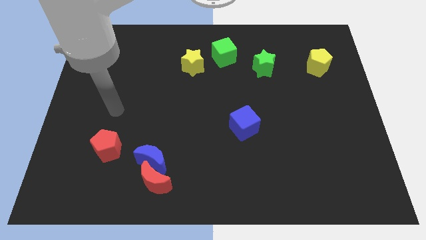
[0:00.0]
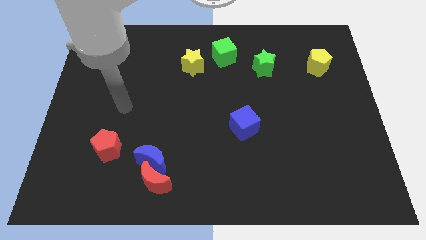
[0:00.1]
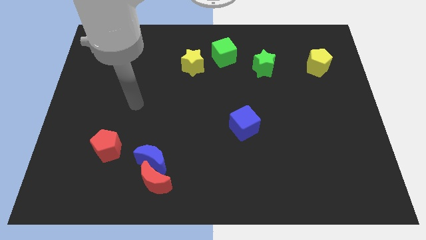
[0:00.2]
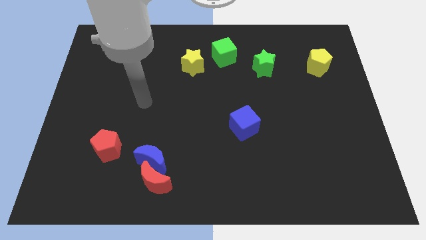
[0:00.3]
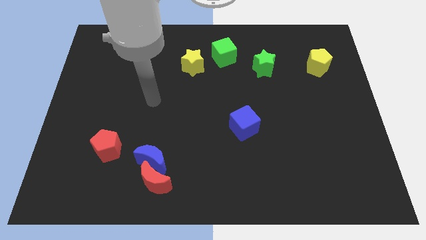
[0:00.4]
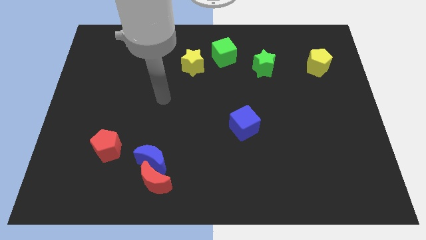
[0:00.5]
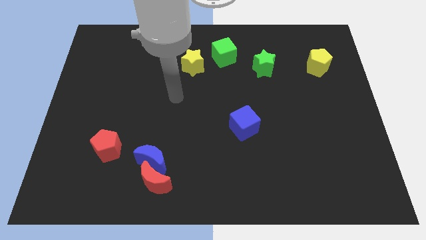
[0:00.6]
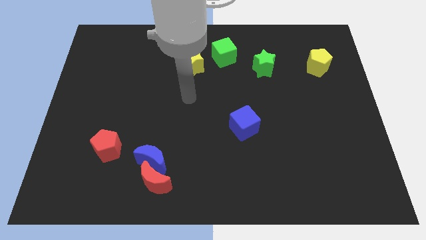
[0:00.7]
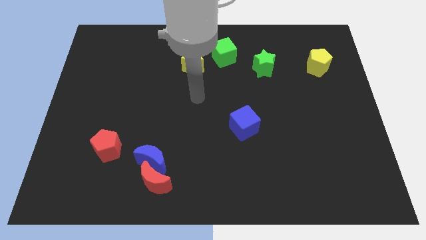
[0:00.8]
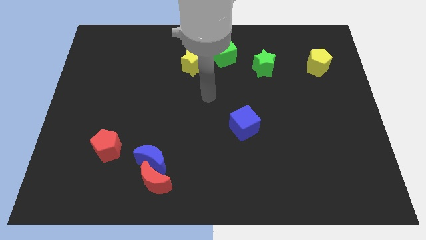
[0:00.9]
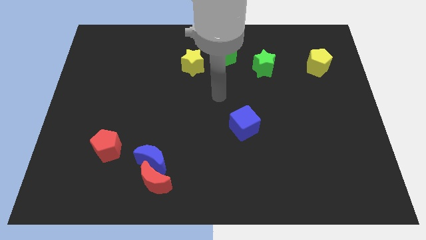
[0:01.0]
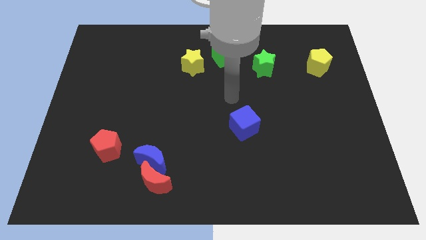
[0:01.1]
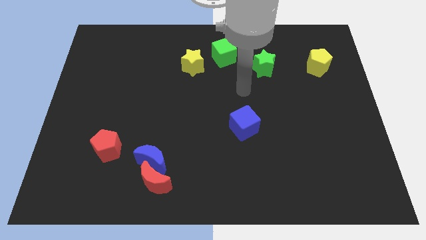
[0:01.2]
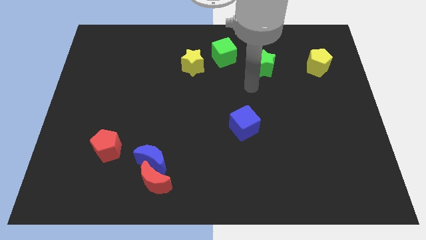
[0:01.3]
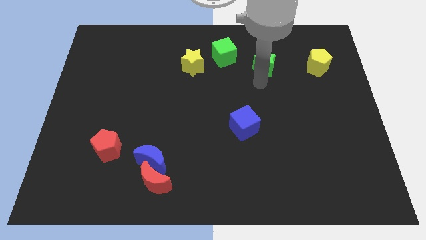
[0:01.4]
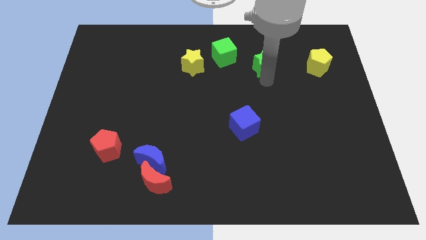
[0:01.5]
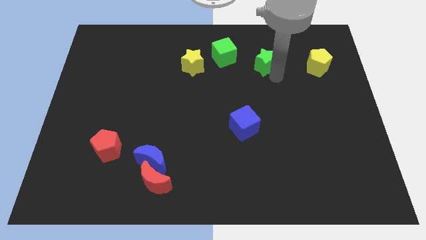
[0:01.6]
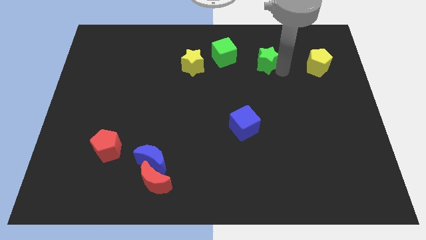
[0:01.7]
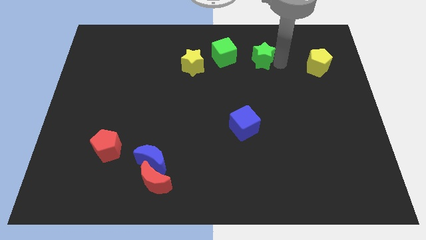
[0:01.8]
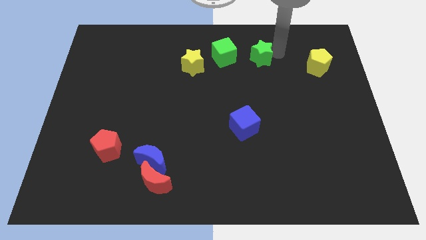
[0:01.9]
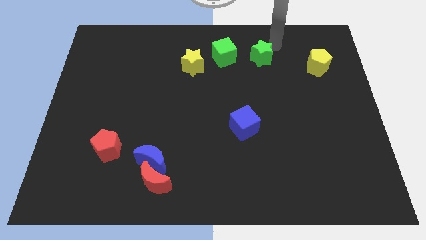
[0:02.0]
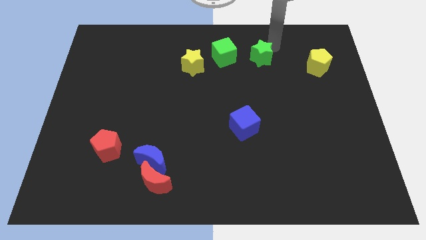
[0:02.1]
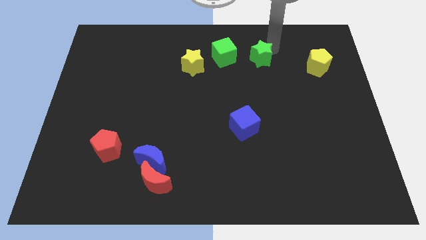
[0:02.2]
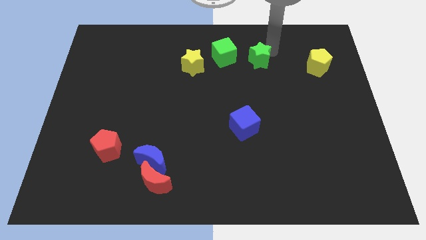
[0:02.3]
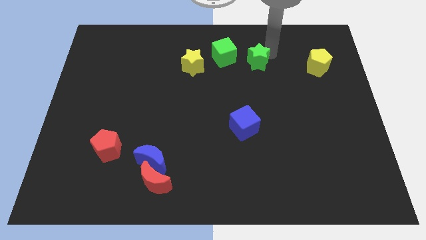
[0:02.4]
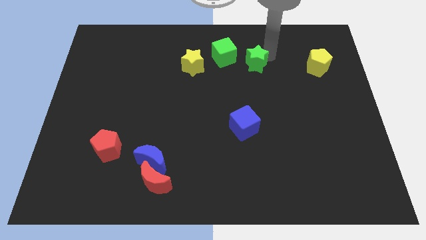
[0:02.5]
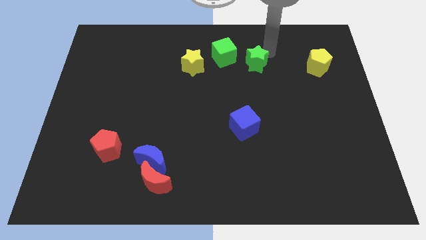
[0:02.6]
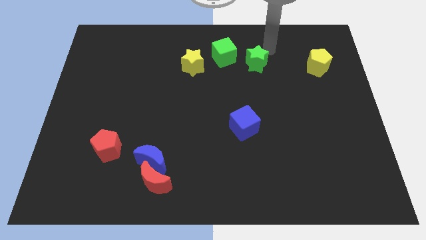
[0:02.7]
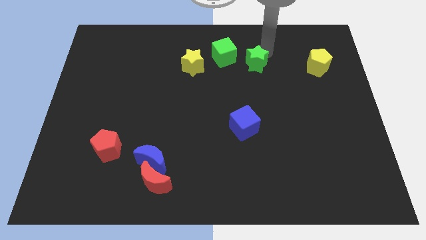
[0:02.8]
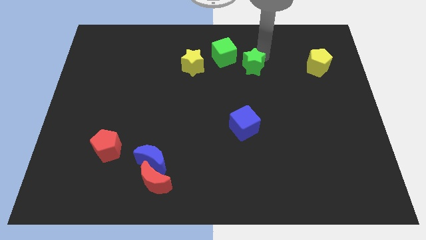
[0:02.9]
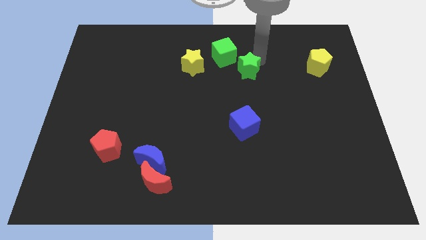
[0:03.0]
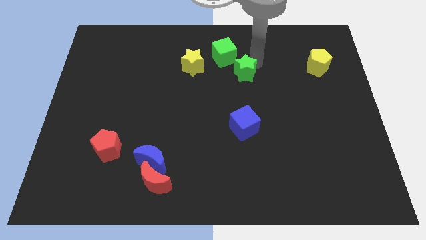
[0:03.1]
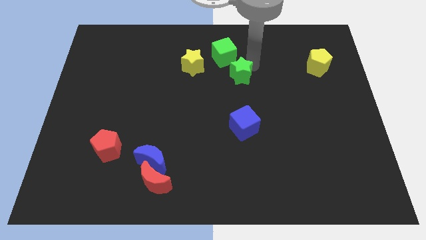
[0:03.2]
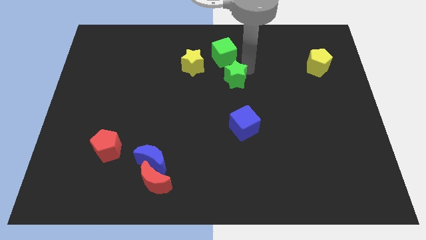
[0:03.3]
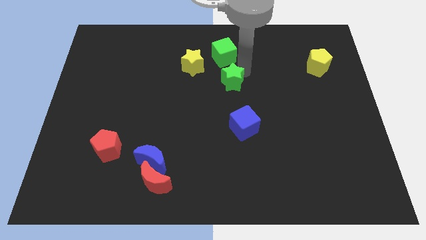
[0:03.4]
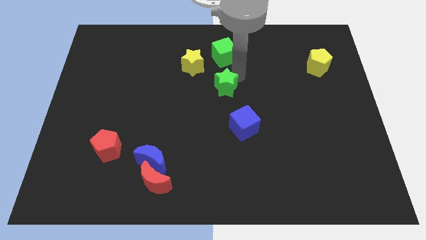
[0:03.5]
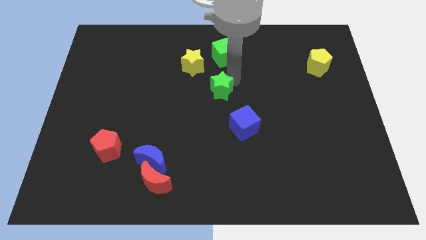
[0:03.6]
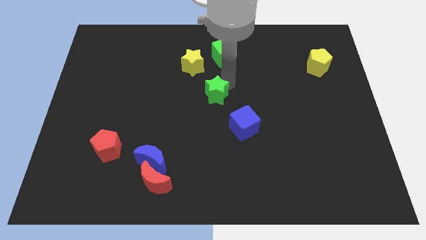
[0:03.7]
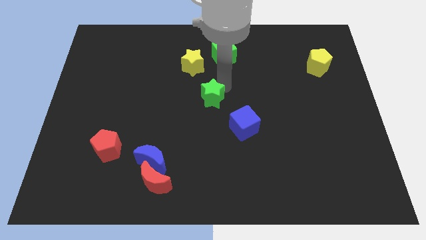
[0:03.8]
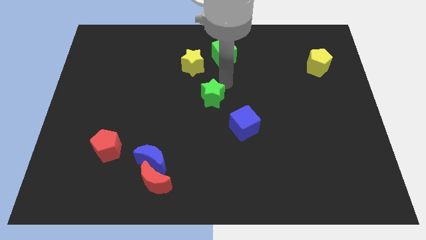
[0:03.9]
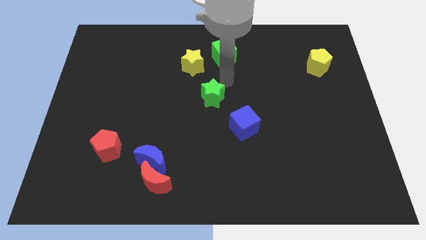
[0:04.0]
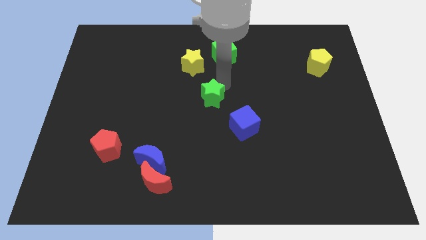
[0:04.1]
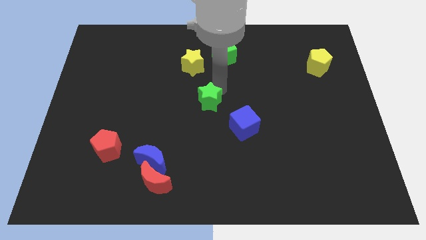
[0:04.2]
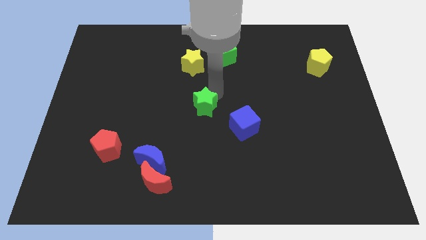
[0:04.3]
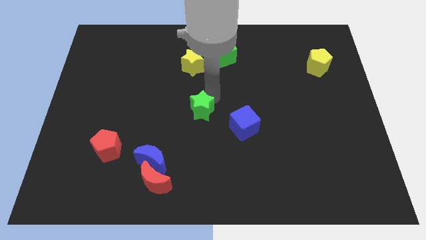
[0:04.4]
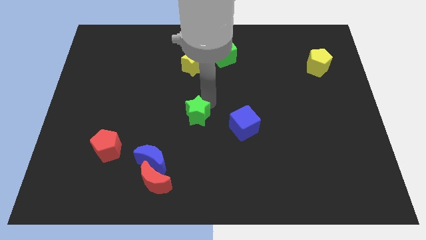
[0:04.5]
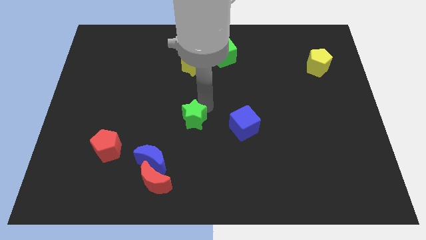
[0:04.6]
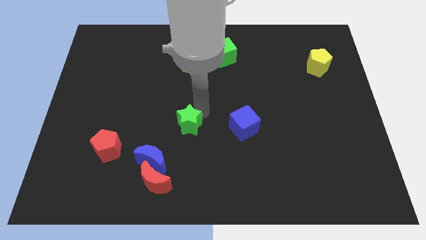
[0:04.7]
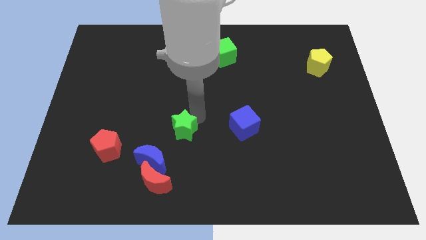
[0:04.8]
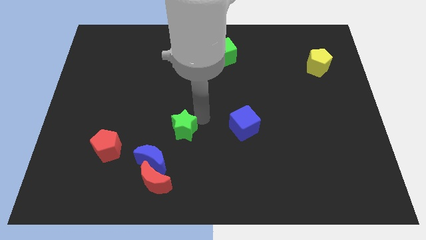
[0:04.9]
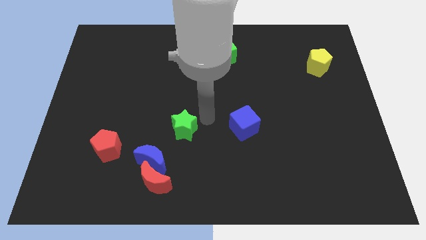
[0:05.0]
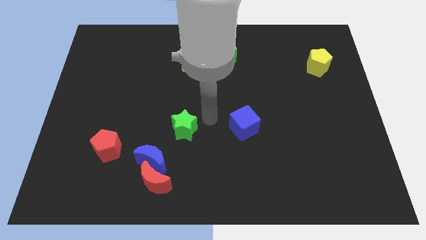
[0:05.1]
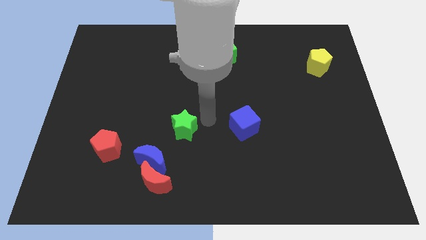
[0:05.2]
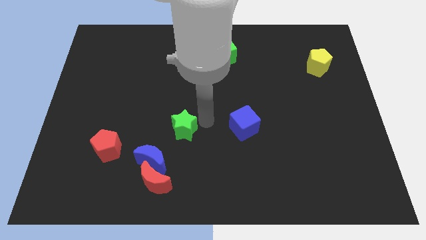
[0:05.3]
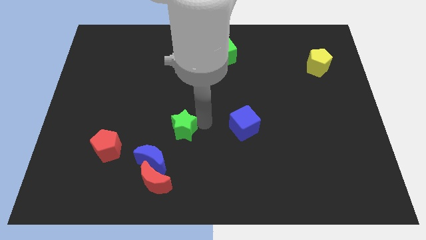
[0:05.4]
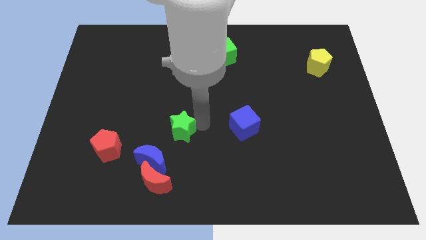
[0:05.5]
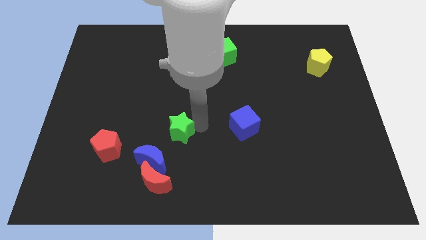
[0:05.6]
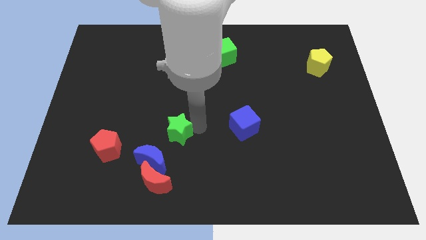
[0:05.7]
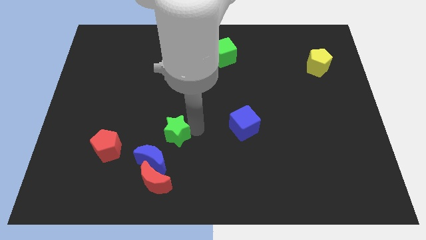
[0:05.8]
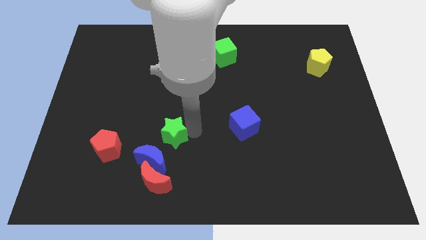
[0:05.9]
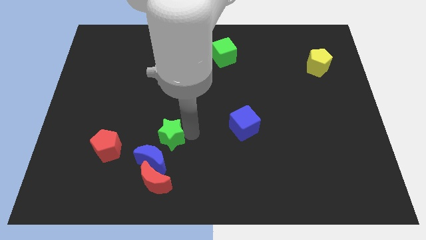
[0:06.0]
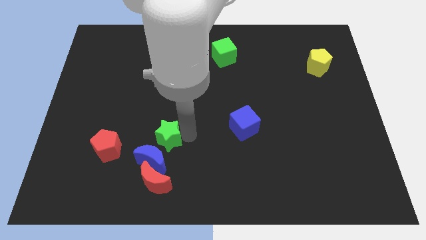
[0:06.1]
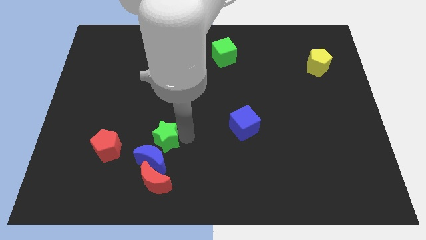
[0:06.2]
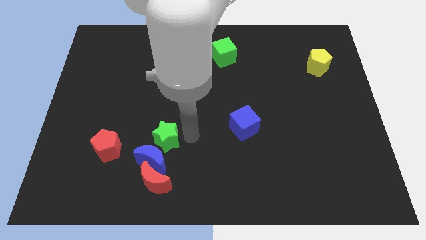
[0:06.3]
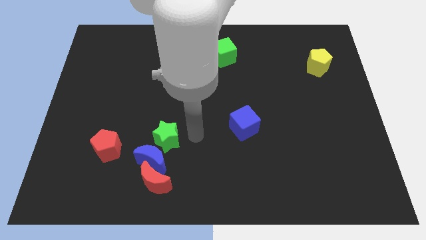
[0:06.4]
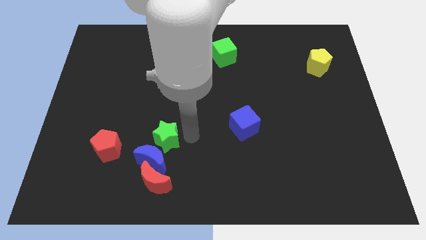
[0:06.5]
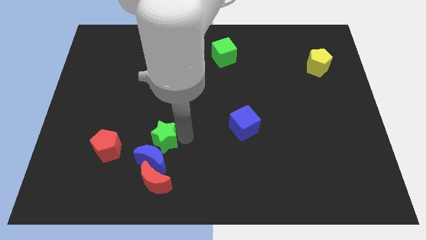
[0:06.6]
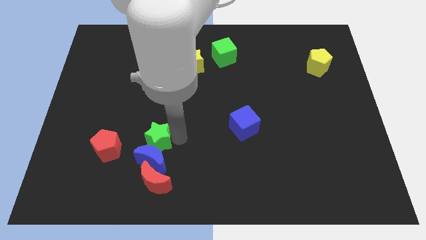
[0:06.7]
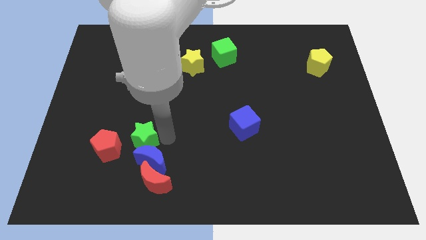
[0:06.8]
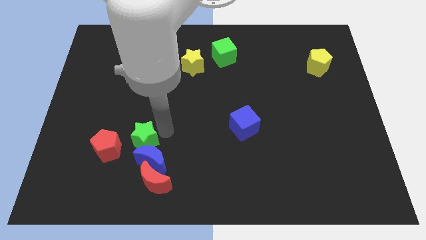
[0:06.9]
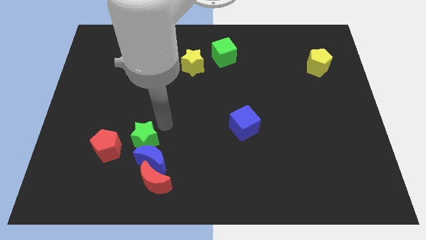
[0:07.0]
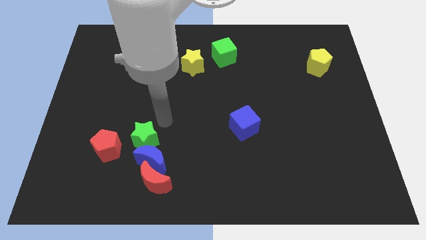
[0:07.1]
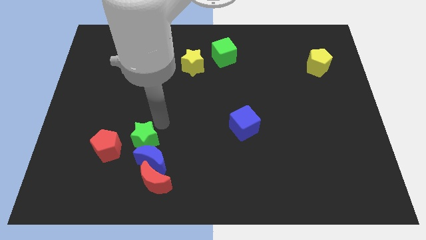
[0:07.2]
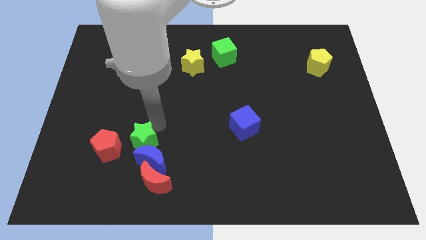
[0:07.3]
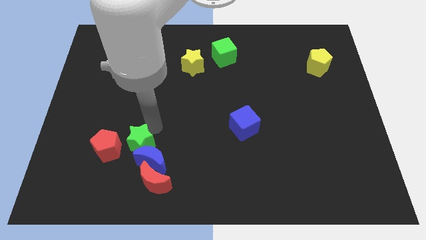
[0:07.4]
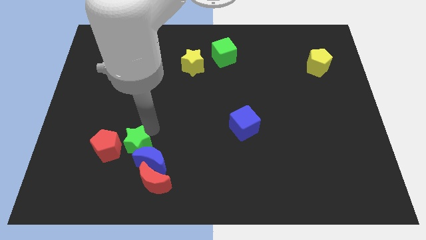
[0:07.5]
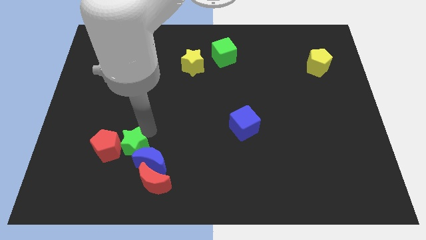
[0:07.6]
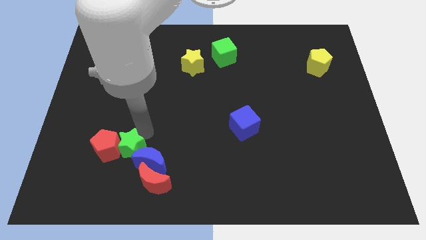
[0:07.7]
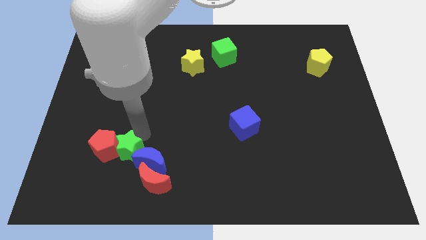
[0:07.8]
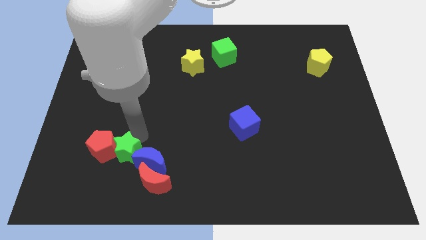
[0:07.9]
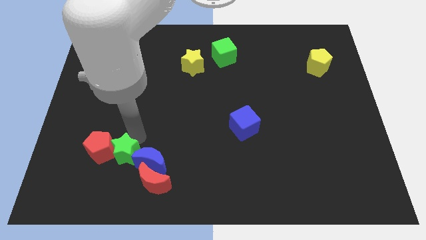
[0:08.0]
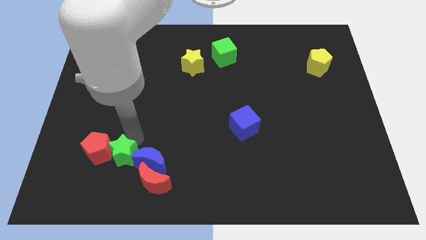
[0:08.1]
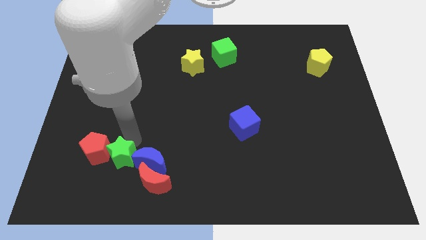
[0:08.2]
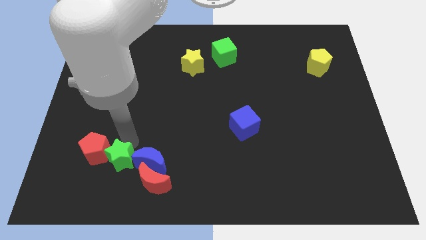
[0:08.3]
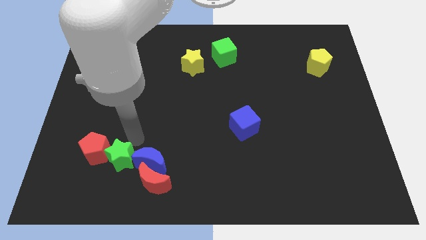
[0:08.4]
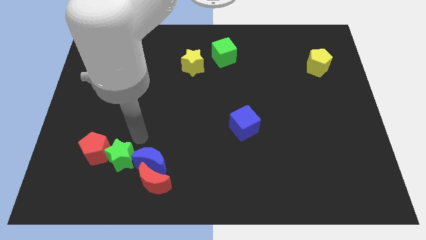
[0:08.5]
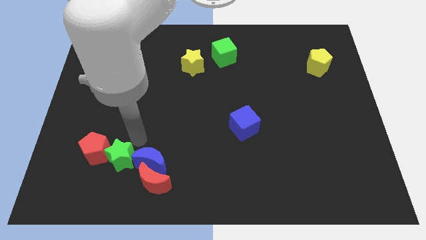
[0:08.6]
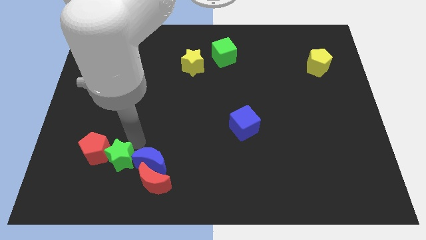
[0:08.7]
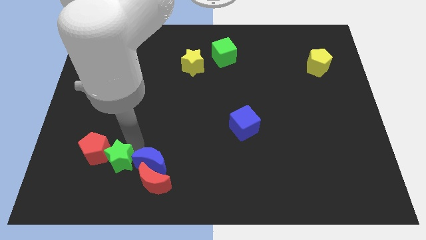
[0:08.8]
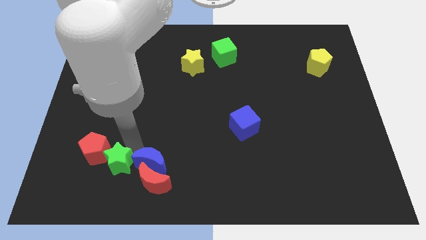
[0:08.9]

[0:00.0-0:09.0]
slide the green star just left of the red moon
